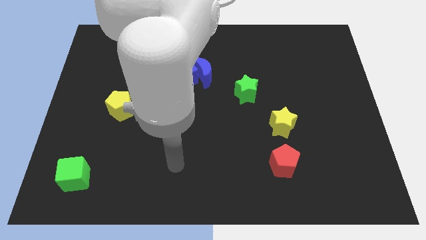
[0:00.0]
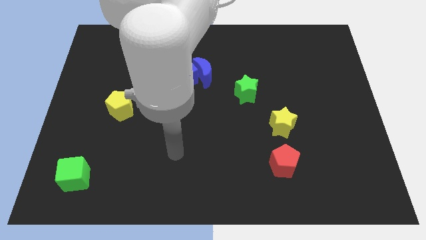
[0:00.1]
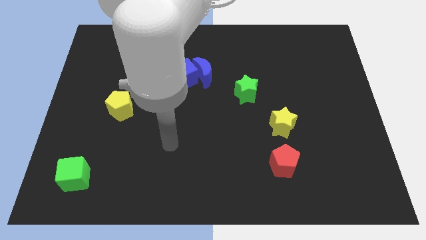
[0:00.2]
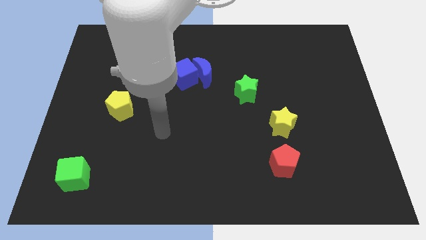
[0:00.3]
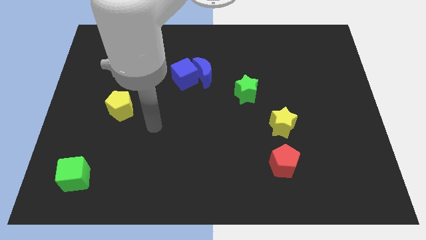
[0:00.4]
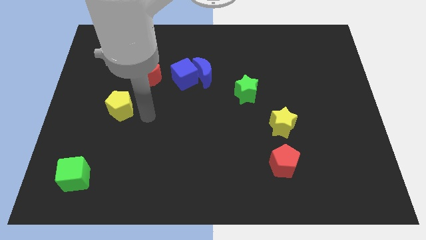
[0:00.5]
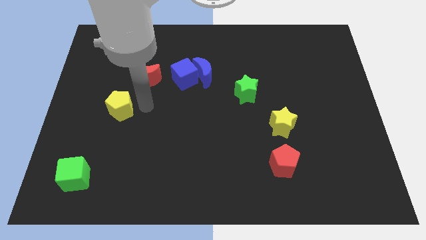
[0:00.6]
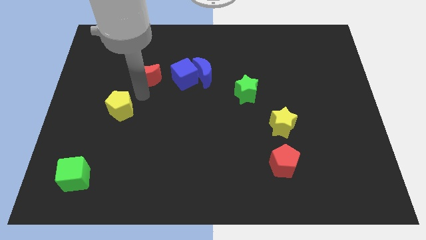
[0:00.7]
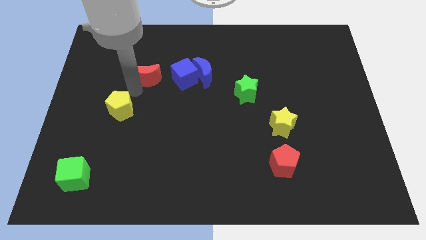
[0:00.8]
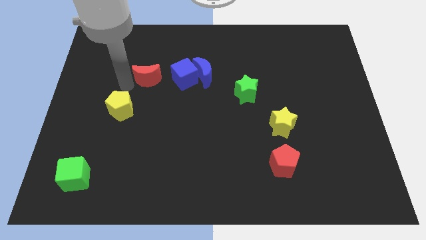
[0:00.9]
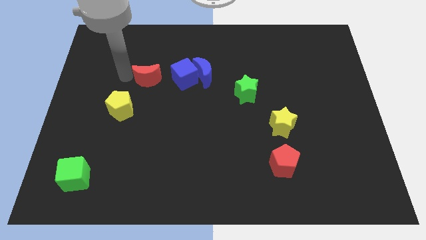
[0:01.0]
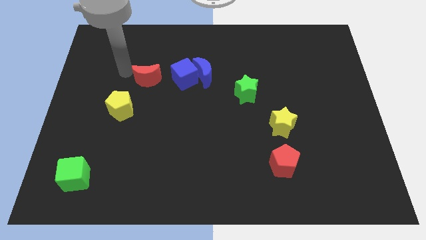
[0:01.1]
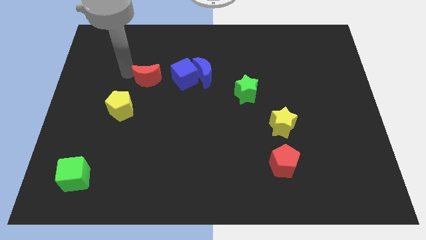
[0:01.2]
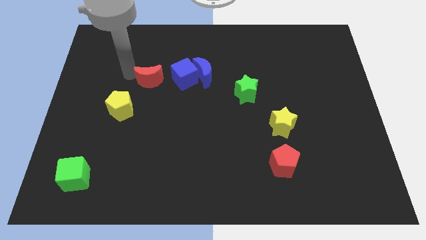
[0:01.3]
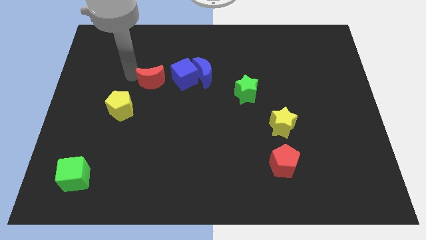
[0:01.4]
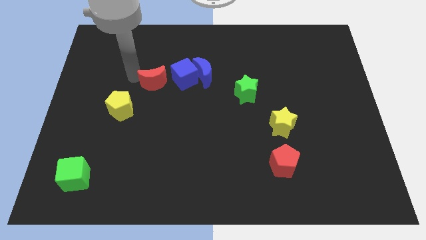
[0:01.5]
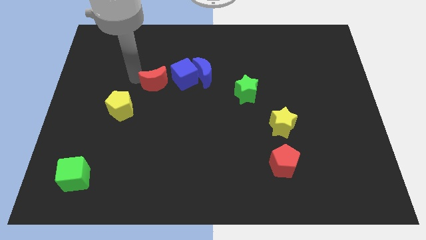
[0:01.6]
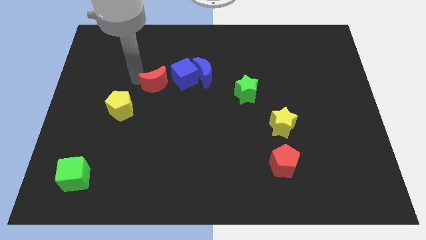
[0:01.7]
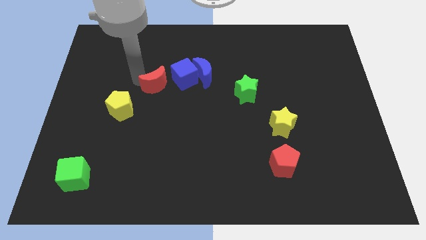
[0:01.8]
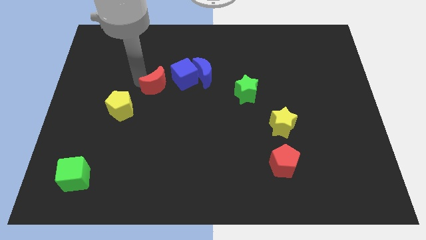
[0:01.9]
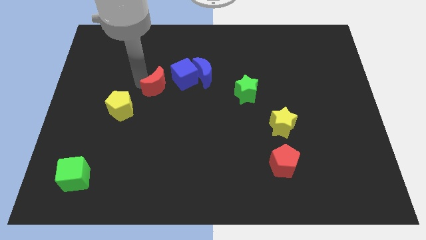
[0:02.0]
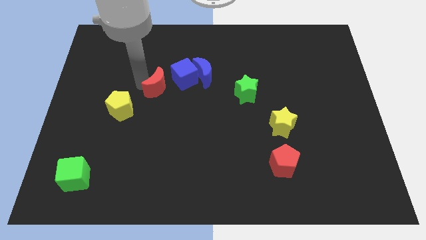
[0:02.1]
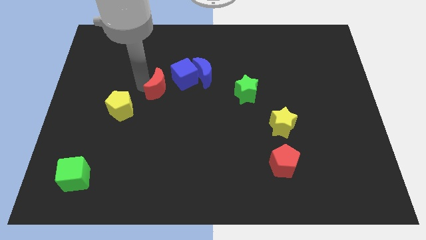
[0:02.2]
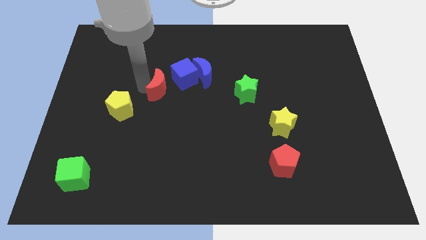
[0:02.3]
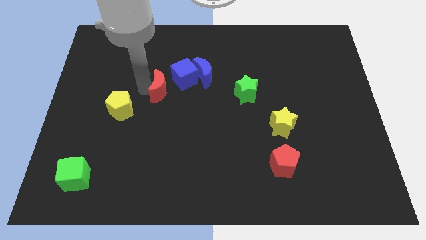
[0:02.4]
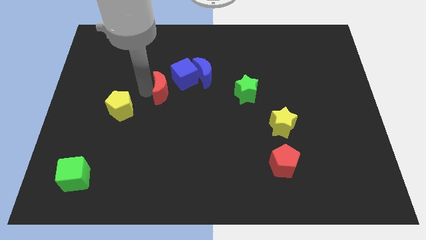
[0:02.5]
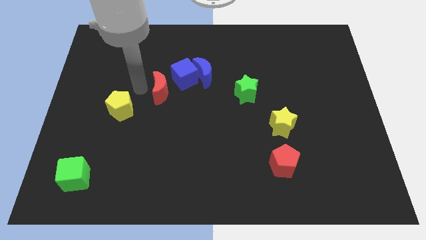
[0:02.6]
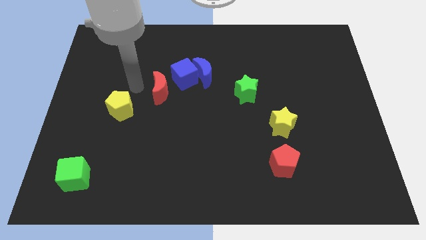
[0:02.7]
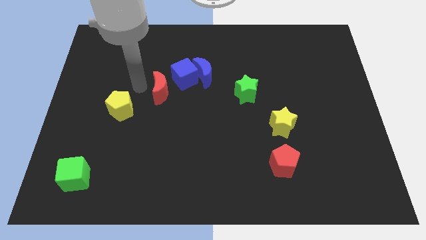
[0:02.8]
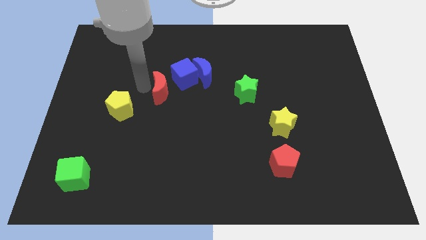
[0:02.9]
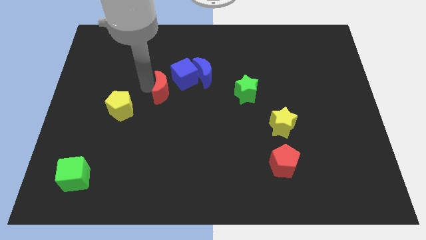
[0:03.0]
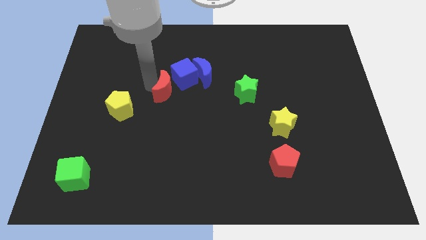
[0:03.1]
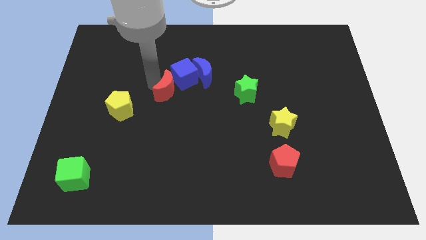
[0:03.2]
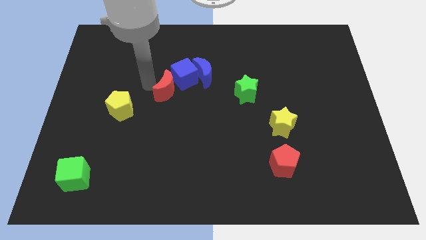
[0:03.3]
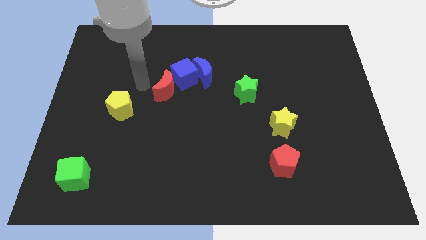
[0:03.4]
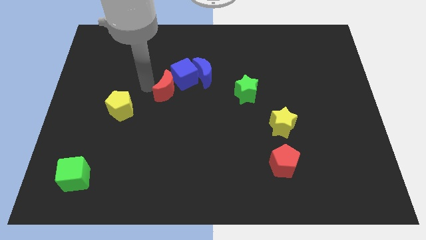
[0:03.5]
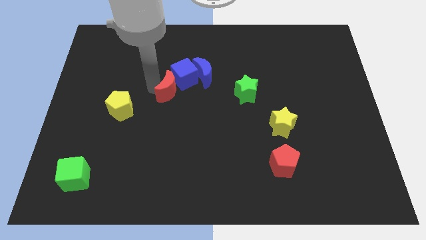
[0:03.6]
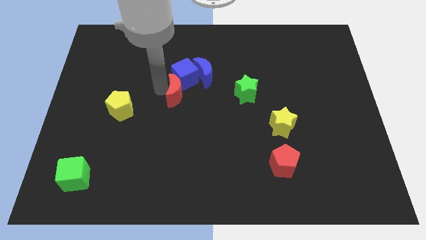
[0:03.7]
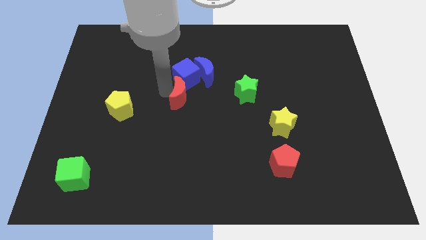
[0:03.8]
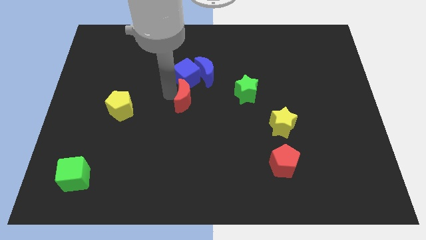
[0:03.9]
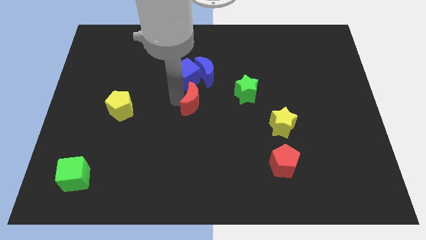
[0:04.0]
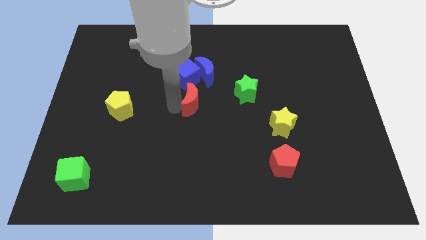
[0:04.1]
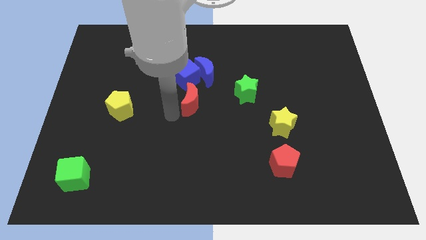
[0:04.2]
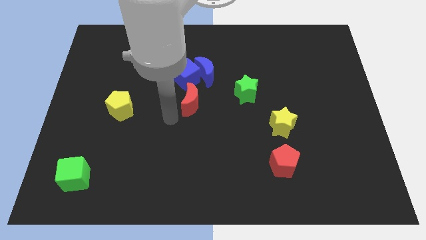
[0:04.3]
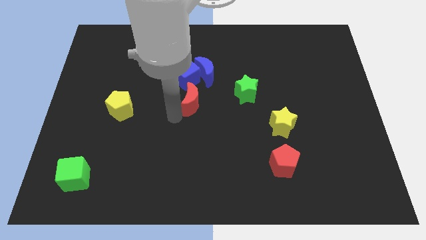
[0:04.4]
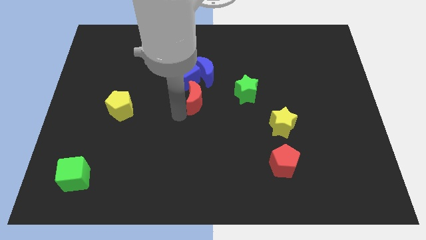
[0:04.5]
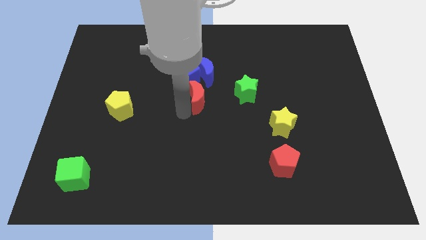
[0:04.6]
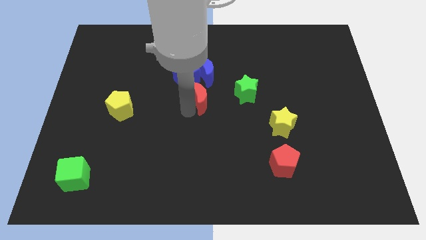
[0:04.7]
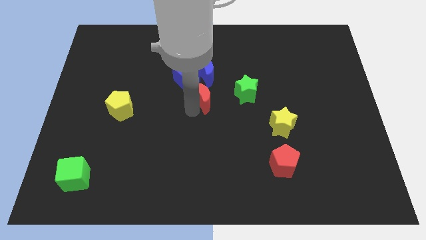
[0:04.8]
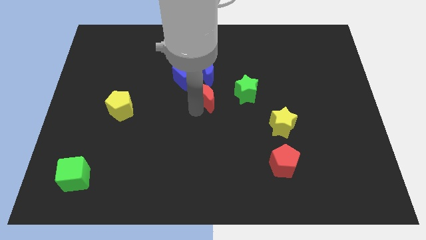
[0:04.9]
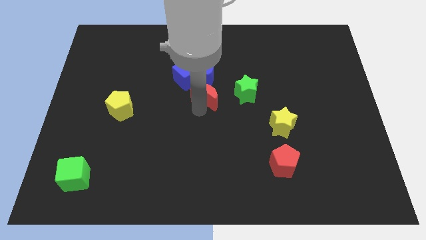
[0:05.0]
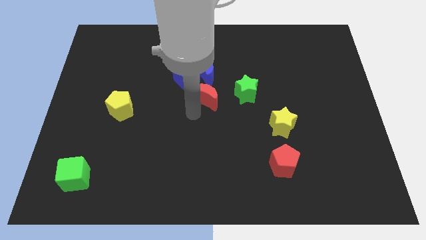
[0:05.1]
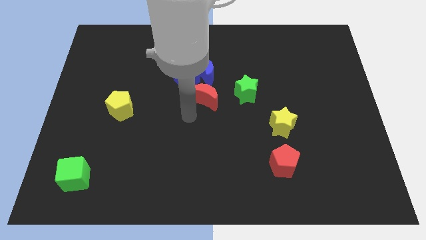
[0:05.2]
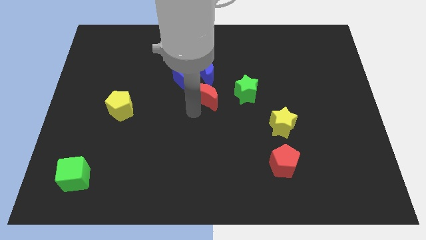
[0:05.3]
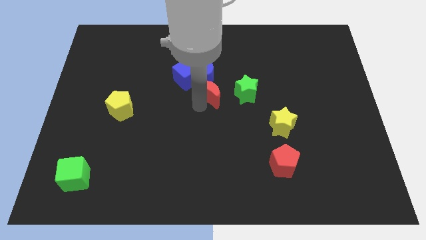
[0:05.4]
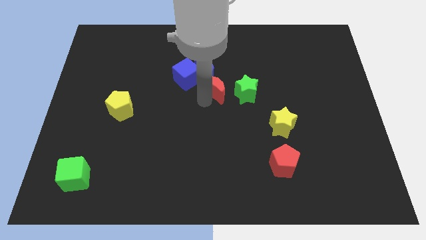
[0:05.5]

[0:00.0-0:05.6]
push the red moon to the right of the blue cube

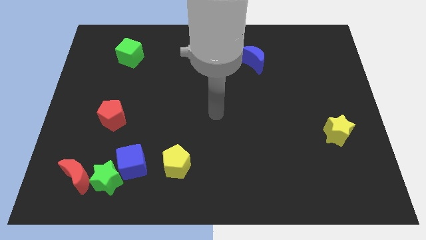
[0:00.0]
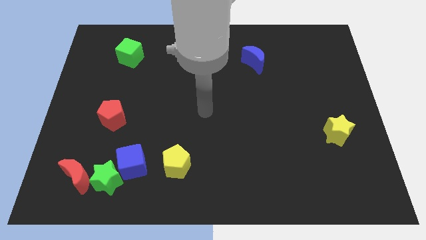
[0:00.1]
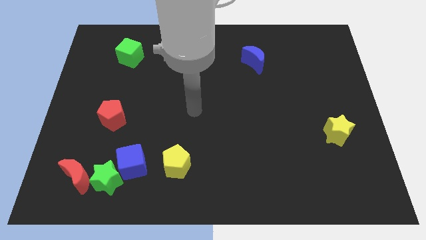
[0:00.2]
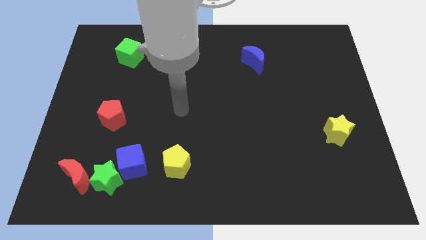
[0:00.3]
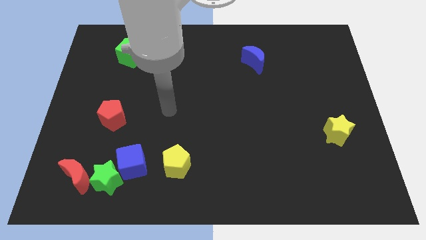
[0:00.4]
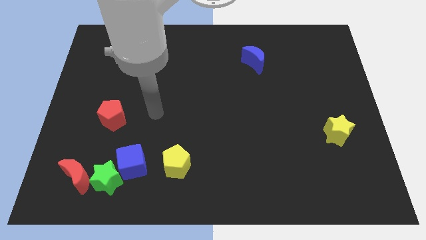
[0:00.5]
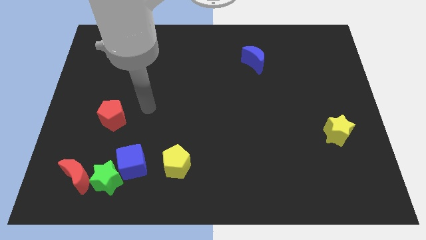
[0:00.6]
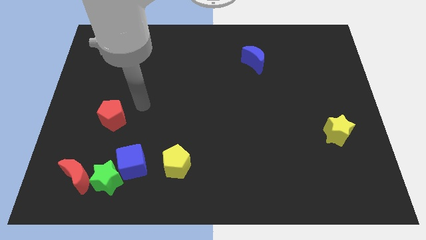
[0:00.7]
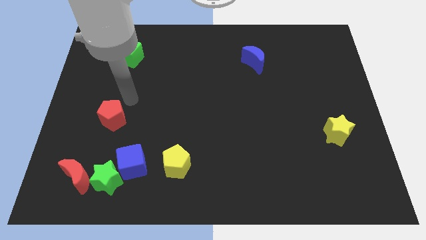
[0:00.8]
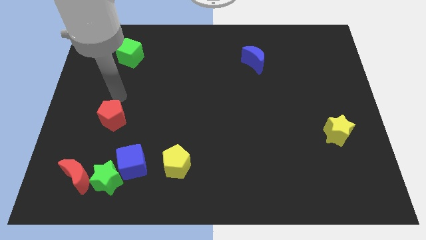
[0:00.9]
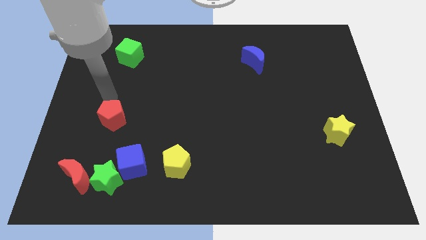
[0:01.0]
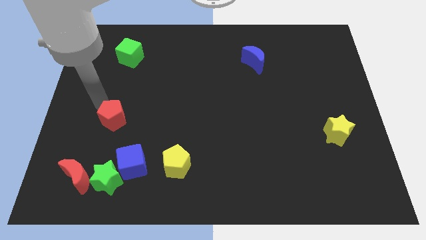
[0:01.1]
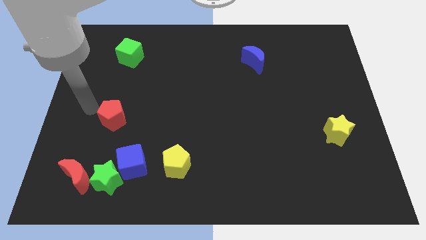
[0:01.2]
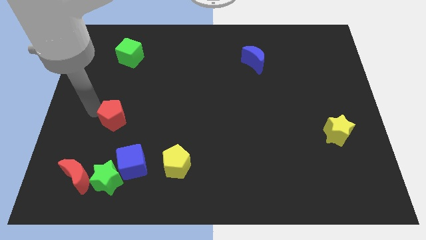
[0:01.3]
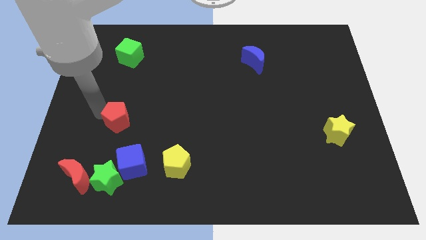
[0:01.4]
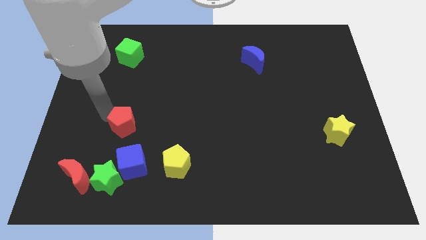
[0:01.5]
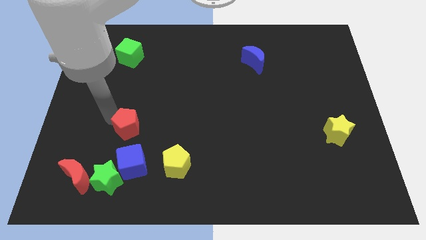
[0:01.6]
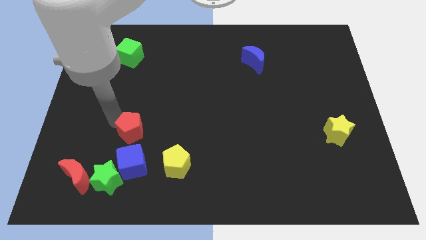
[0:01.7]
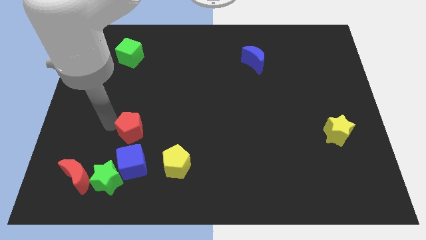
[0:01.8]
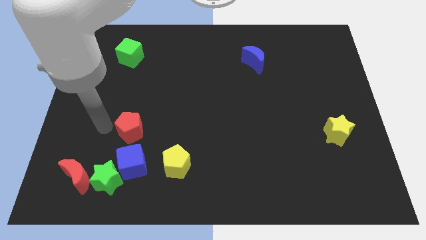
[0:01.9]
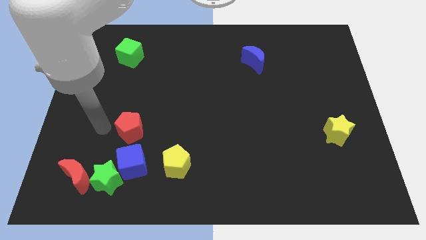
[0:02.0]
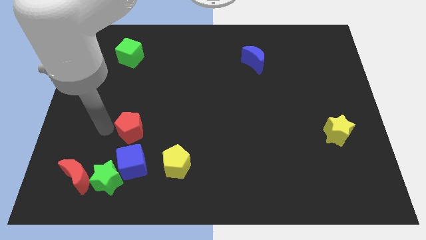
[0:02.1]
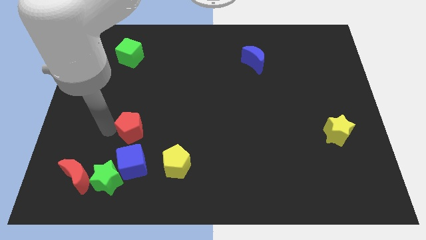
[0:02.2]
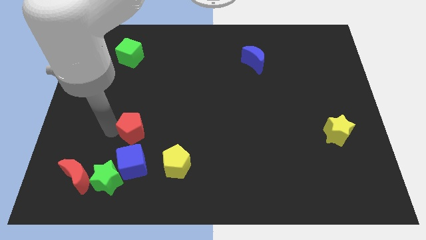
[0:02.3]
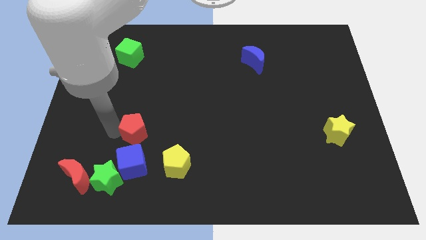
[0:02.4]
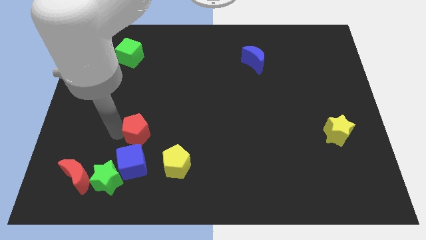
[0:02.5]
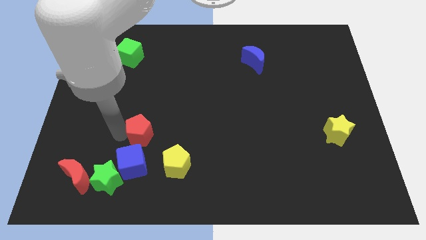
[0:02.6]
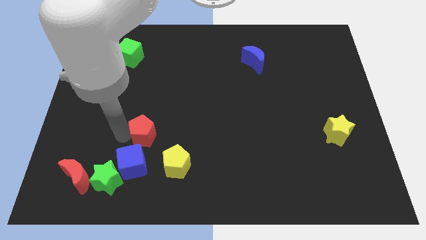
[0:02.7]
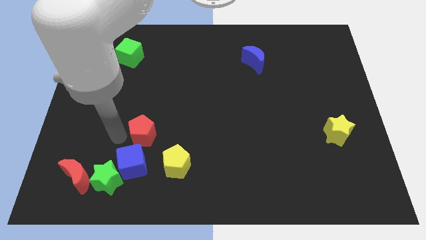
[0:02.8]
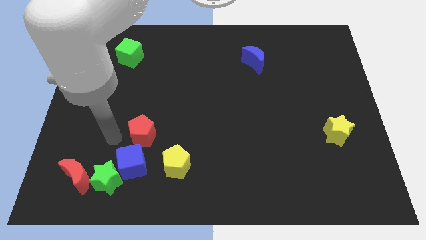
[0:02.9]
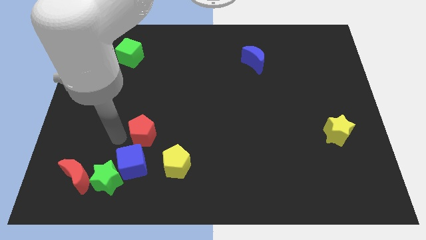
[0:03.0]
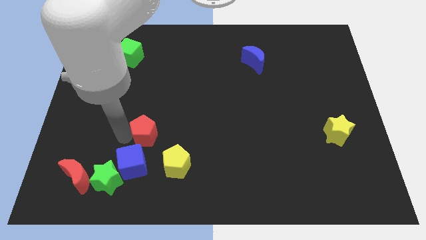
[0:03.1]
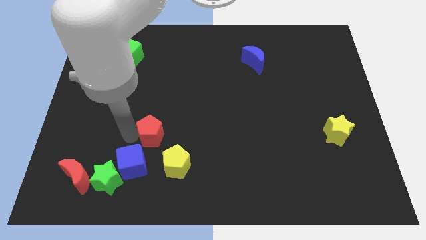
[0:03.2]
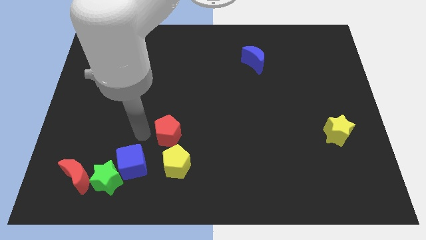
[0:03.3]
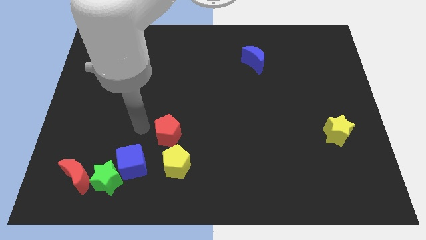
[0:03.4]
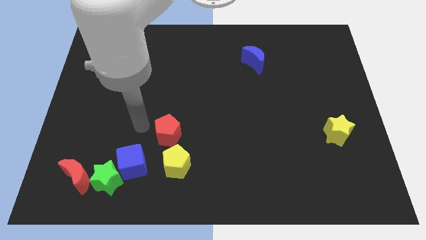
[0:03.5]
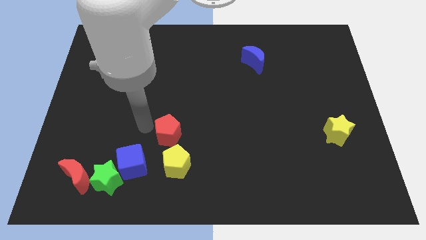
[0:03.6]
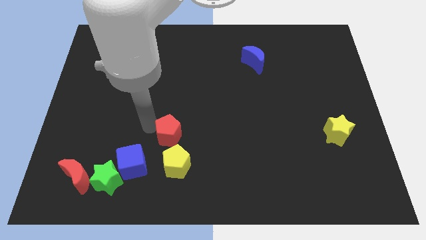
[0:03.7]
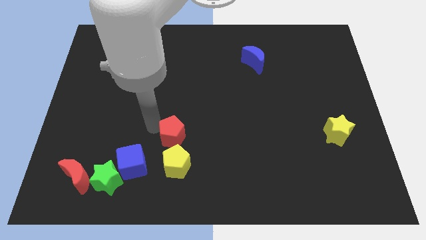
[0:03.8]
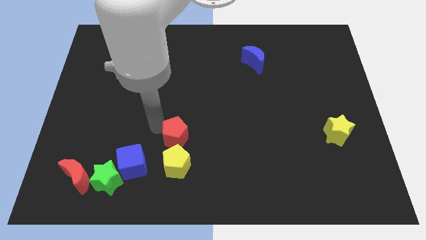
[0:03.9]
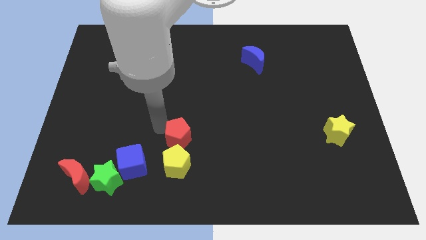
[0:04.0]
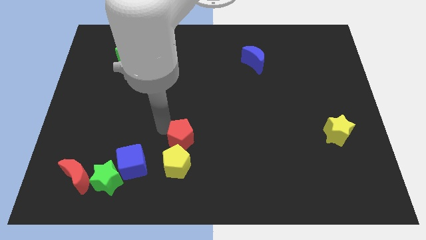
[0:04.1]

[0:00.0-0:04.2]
move the red pentagon to the top right of the yellow pentagon
